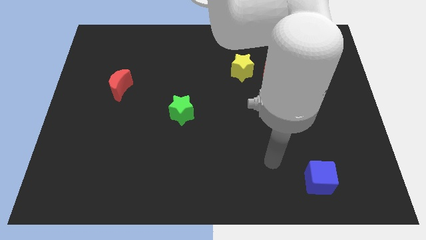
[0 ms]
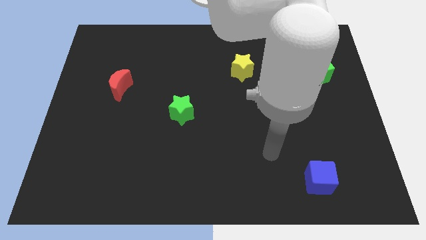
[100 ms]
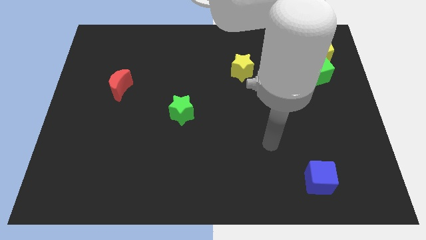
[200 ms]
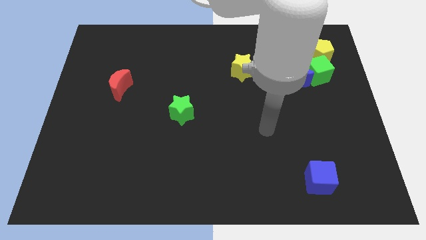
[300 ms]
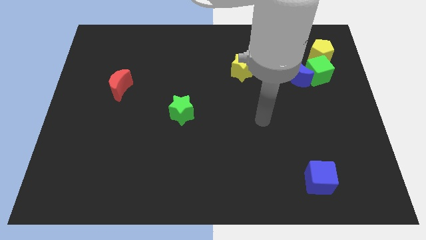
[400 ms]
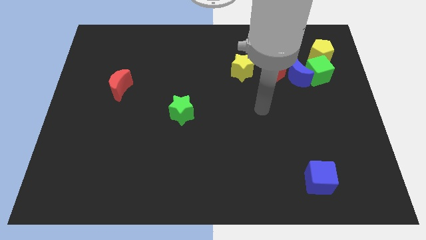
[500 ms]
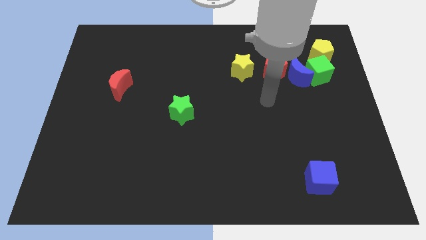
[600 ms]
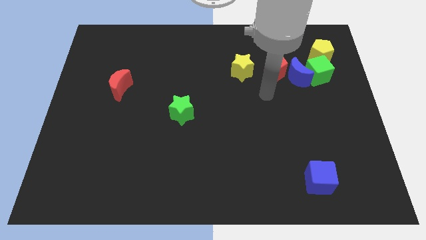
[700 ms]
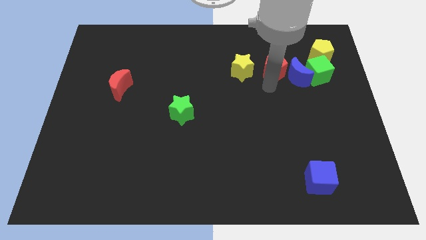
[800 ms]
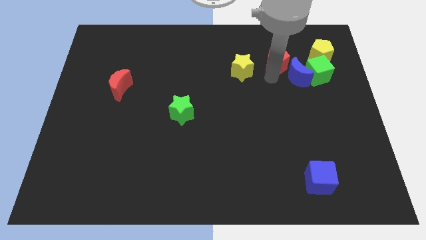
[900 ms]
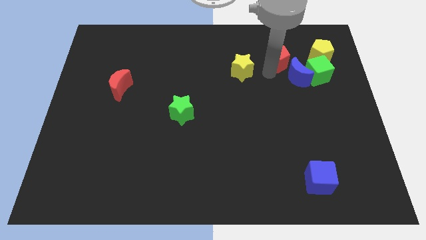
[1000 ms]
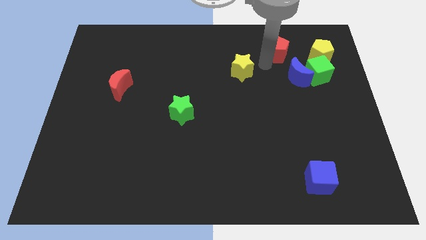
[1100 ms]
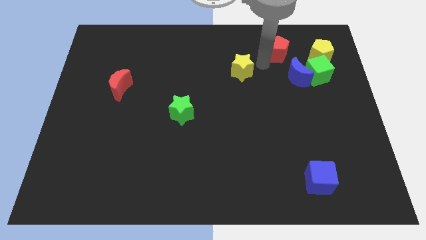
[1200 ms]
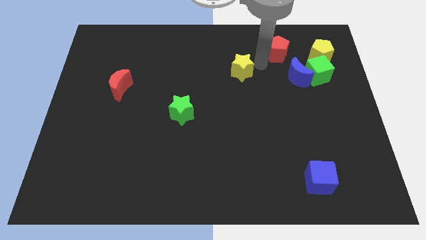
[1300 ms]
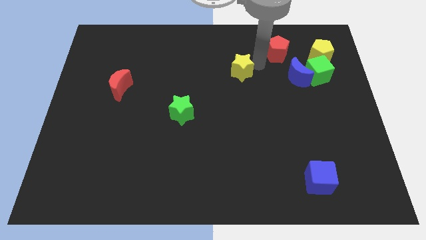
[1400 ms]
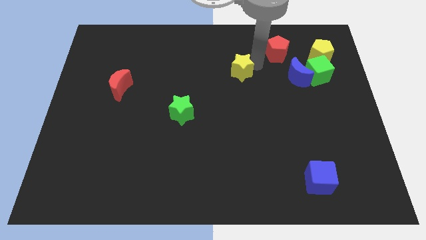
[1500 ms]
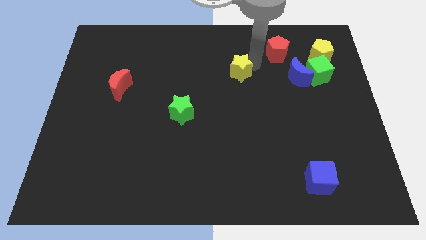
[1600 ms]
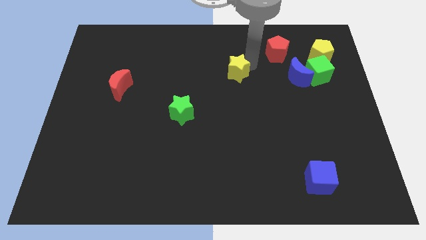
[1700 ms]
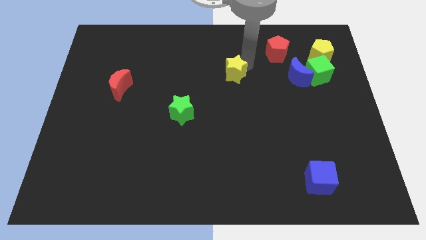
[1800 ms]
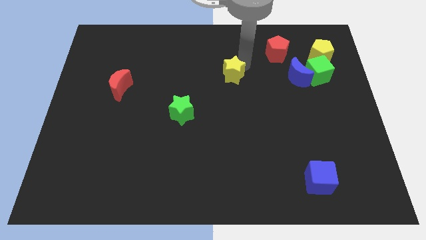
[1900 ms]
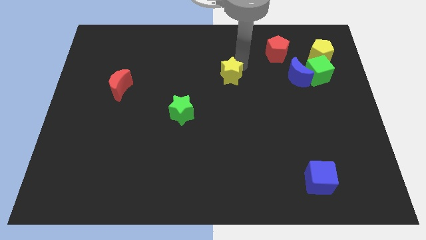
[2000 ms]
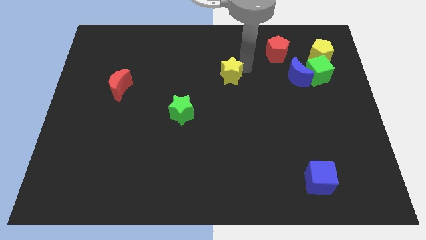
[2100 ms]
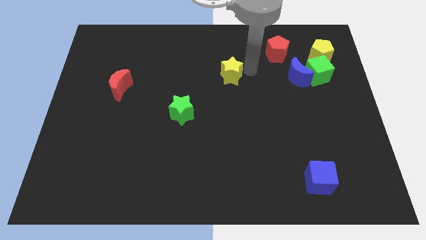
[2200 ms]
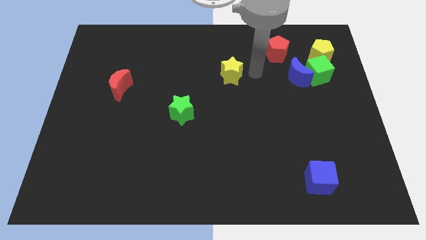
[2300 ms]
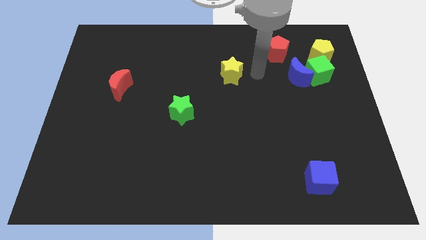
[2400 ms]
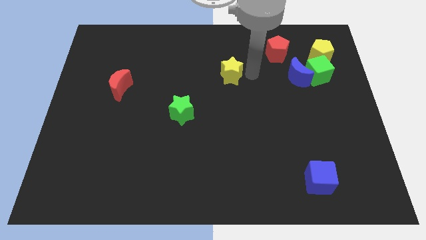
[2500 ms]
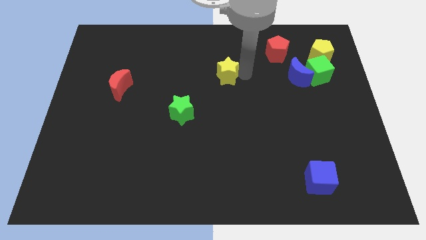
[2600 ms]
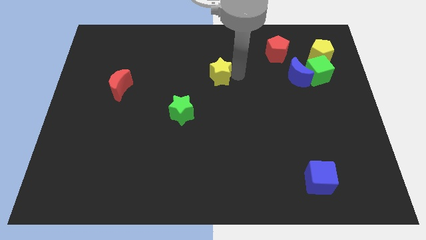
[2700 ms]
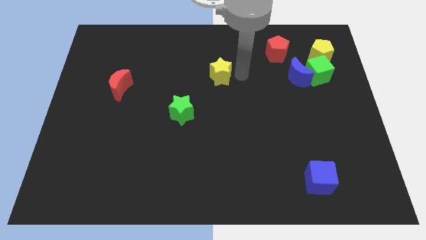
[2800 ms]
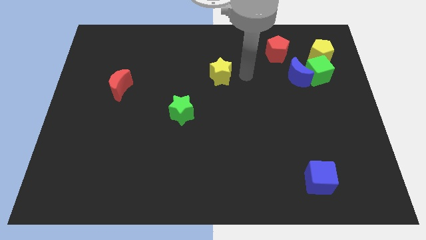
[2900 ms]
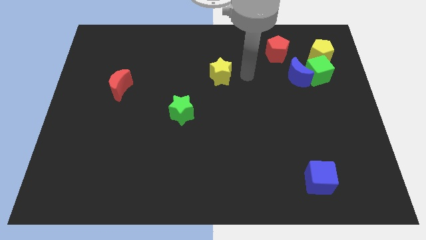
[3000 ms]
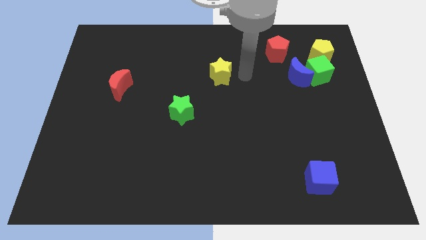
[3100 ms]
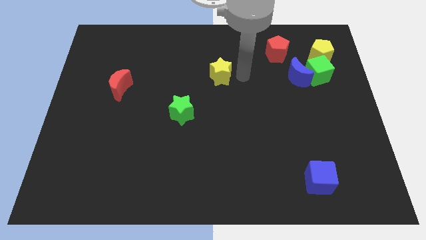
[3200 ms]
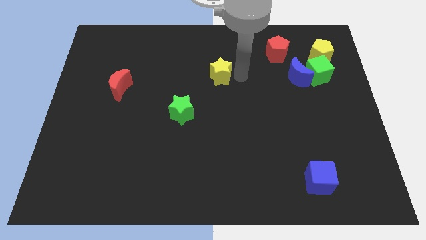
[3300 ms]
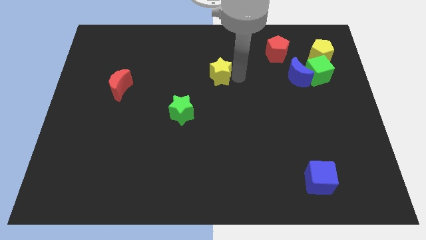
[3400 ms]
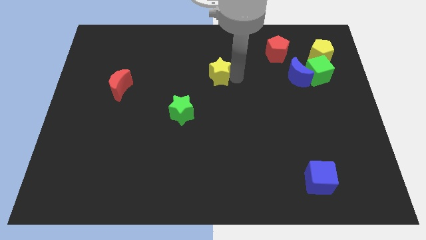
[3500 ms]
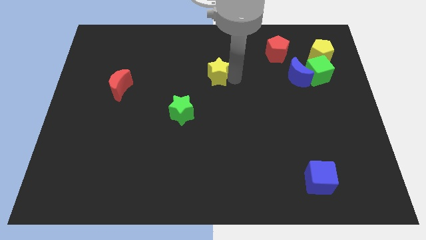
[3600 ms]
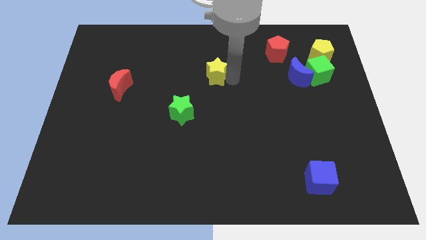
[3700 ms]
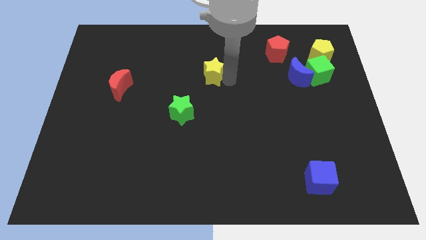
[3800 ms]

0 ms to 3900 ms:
move the yellow star a little to the left

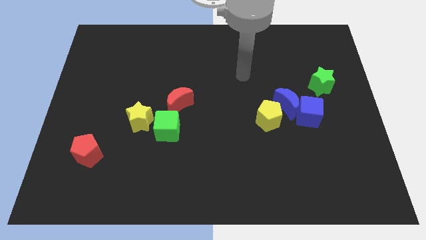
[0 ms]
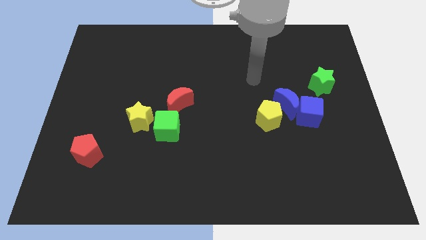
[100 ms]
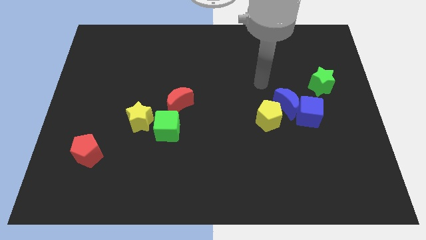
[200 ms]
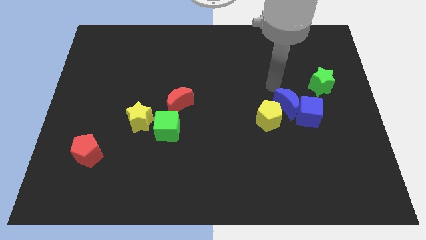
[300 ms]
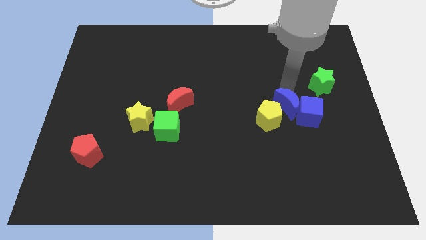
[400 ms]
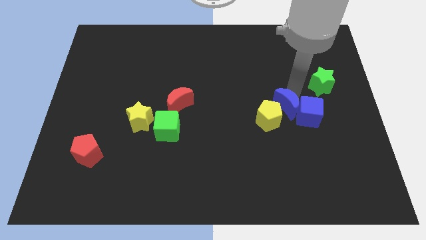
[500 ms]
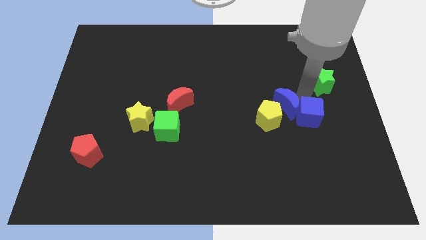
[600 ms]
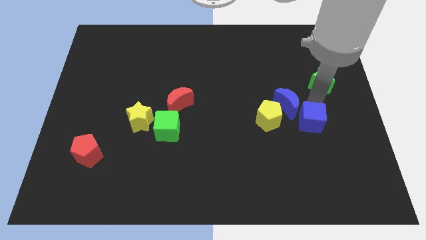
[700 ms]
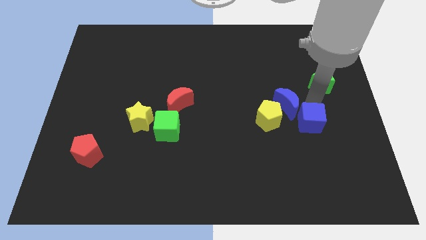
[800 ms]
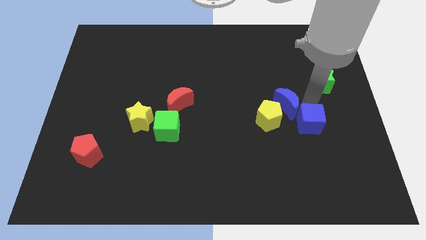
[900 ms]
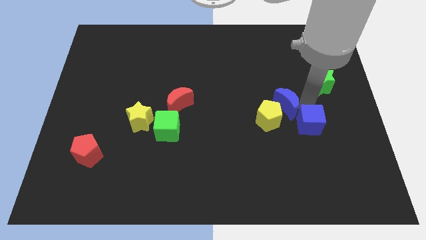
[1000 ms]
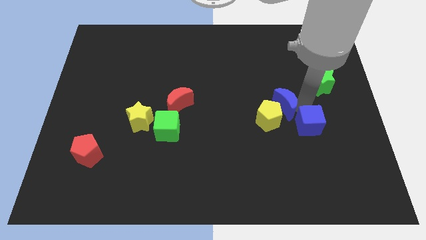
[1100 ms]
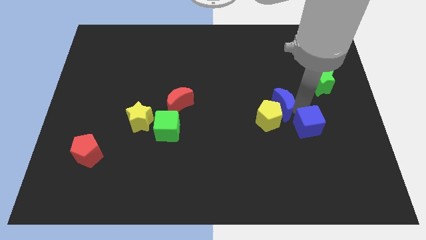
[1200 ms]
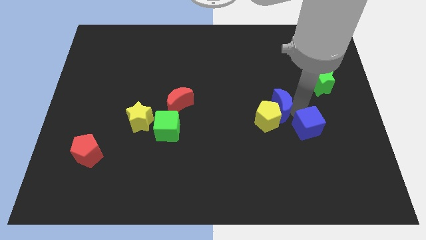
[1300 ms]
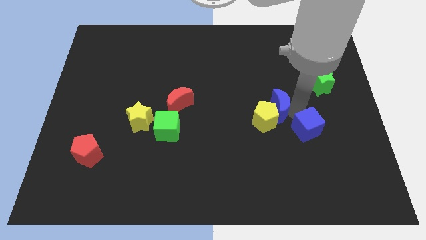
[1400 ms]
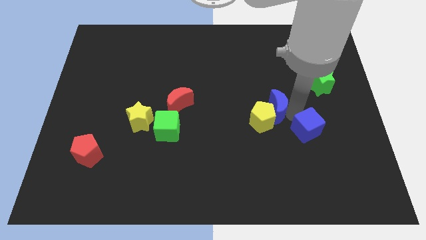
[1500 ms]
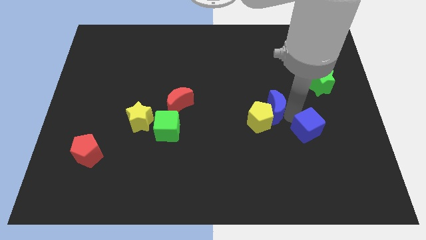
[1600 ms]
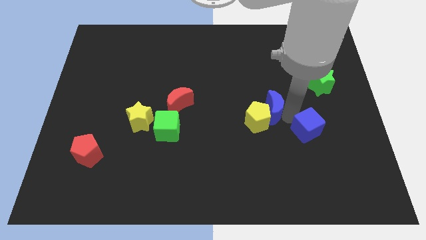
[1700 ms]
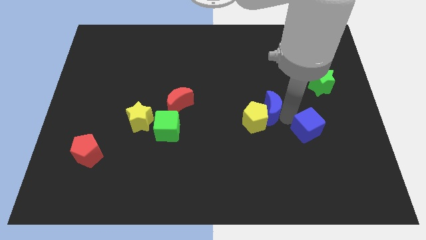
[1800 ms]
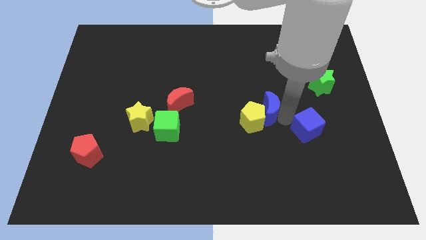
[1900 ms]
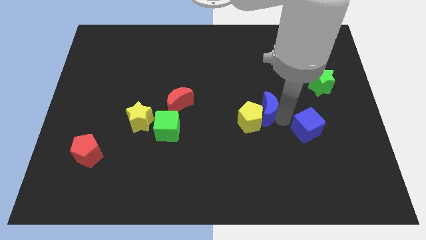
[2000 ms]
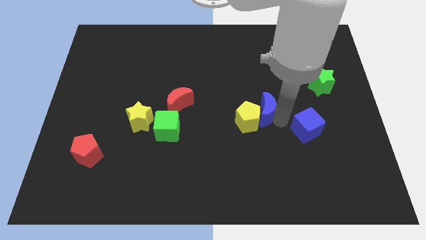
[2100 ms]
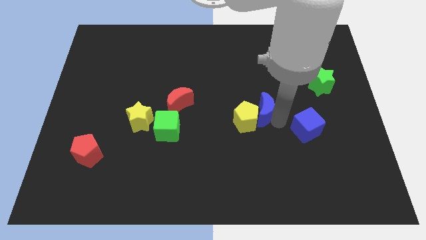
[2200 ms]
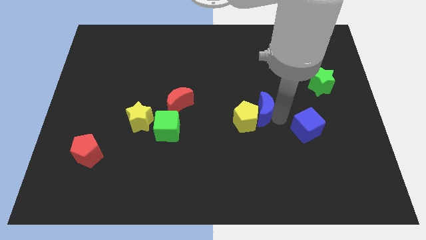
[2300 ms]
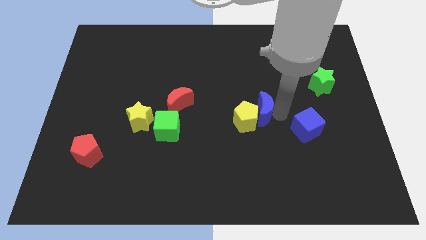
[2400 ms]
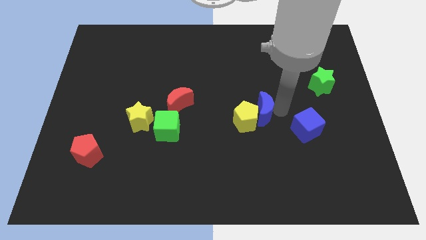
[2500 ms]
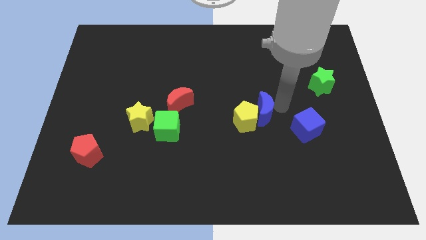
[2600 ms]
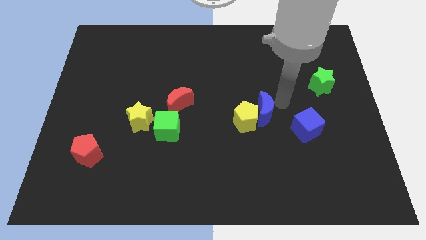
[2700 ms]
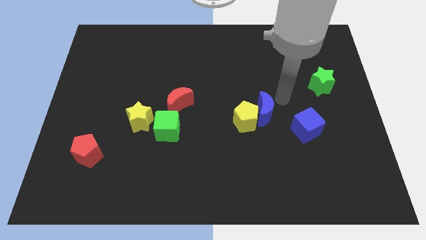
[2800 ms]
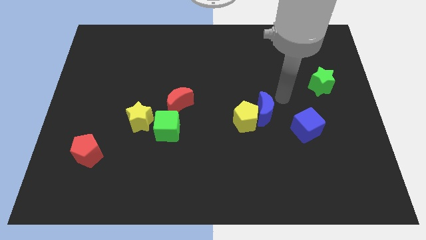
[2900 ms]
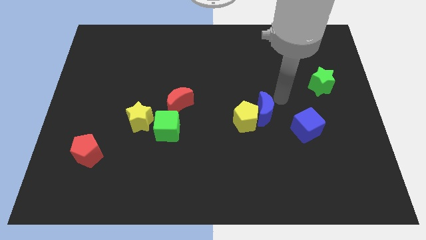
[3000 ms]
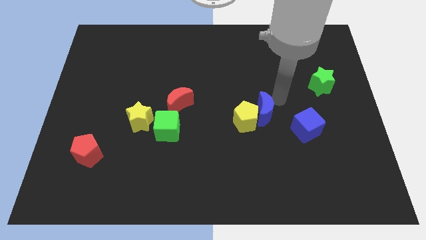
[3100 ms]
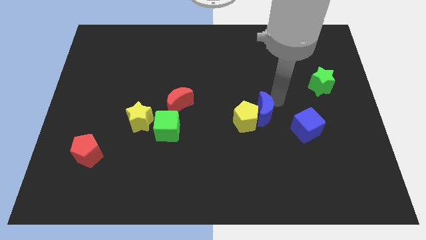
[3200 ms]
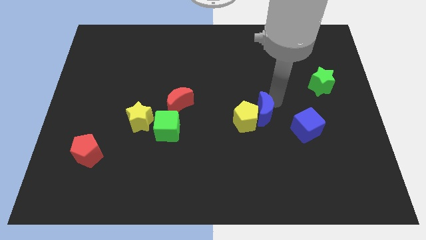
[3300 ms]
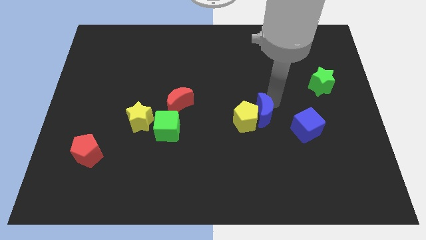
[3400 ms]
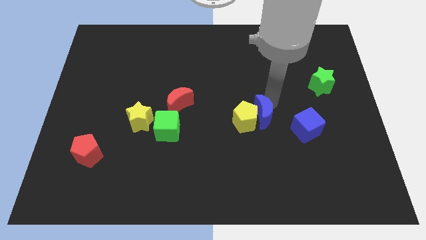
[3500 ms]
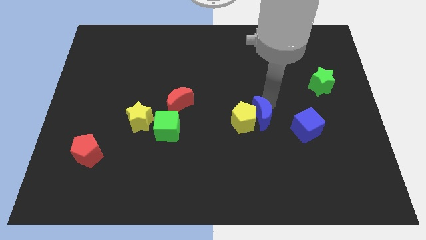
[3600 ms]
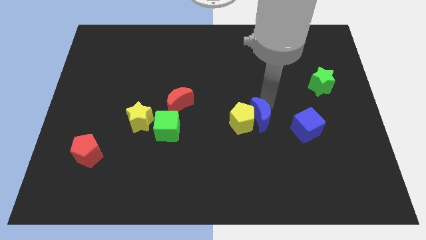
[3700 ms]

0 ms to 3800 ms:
slightly slide the blue moon diagonally downwards and to the left

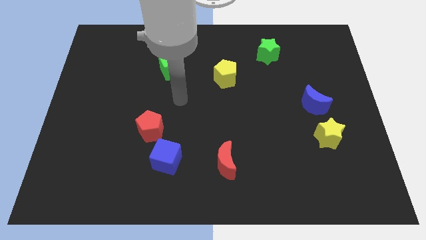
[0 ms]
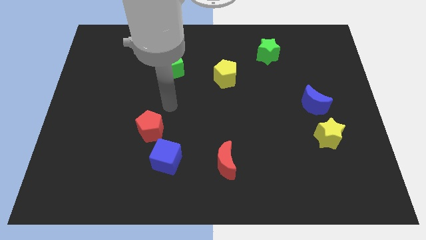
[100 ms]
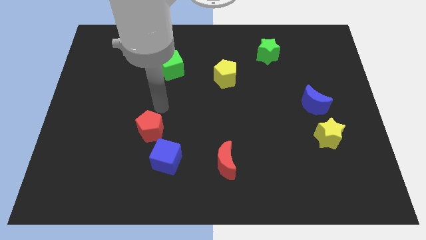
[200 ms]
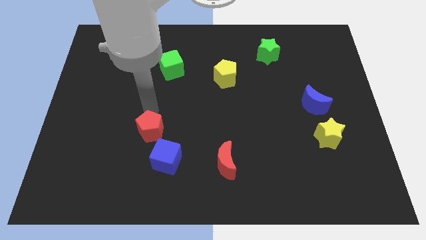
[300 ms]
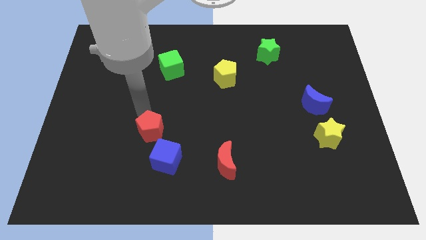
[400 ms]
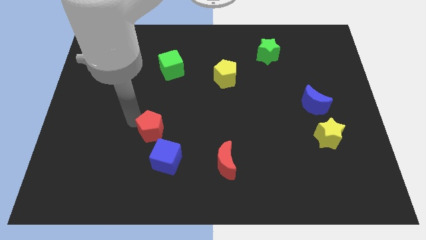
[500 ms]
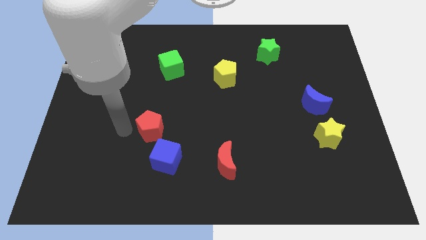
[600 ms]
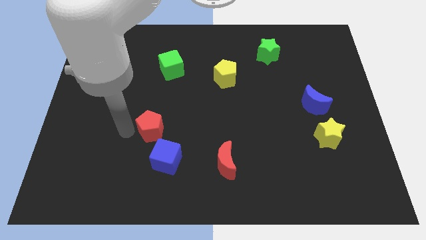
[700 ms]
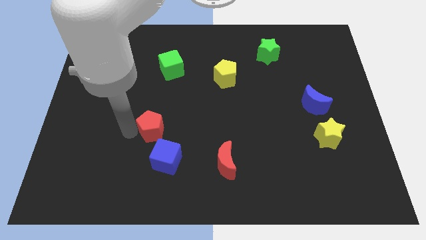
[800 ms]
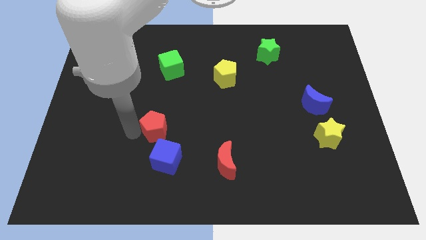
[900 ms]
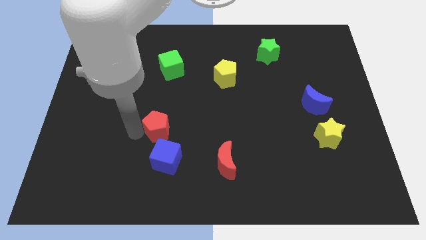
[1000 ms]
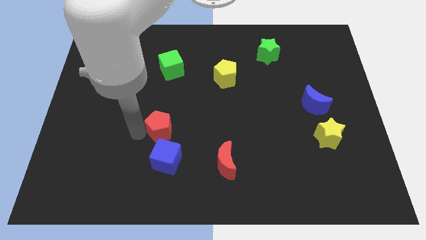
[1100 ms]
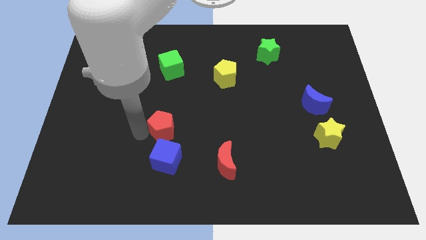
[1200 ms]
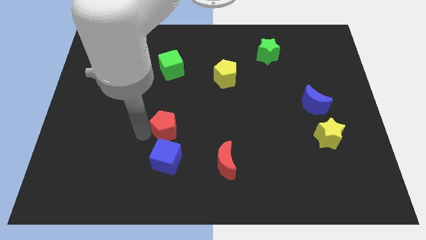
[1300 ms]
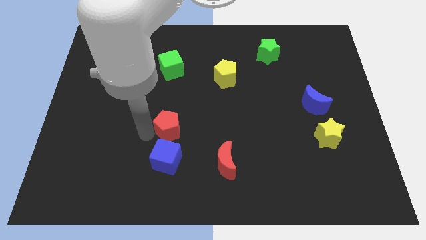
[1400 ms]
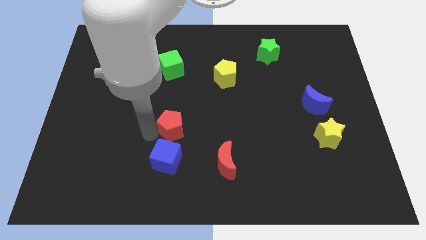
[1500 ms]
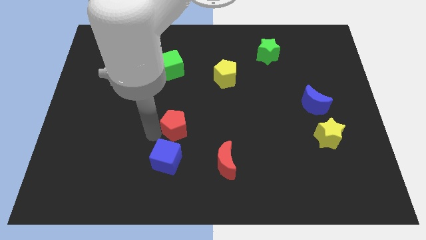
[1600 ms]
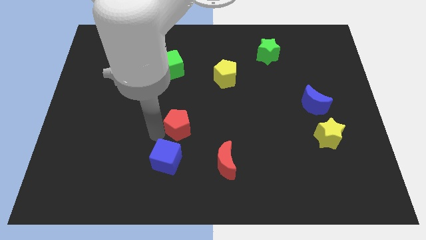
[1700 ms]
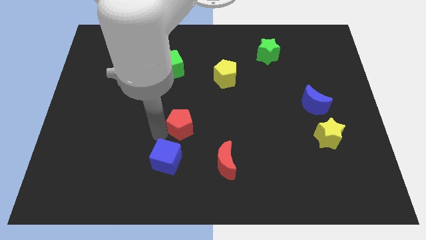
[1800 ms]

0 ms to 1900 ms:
slide the red pentagon a little bit to the right
